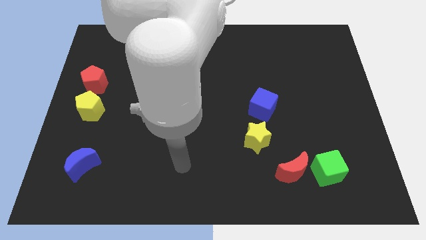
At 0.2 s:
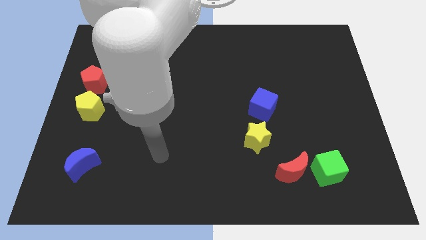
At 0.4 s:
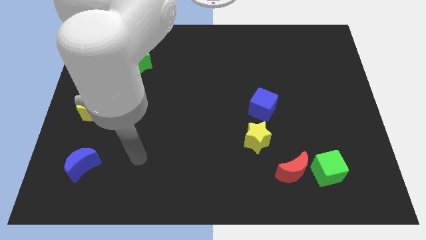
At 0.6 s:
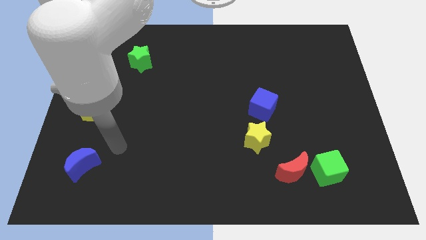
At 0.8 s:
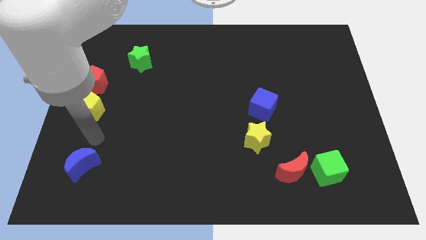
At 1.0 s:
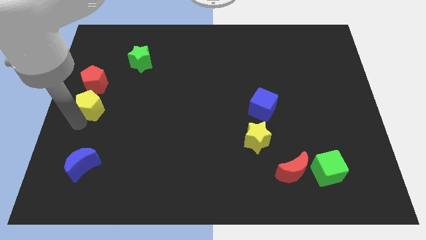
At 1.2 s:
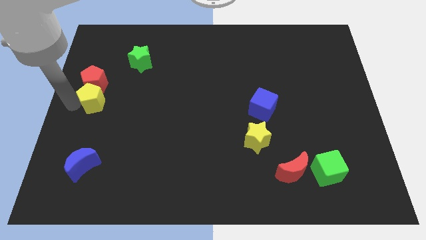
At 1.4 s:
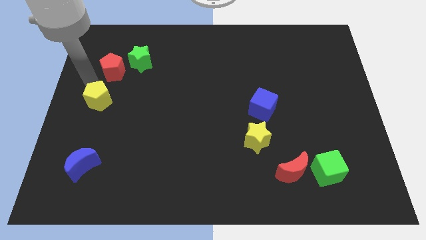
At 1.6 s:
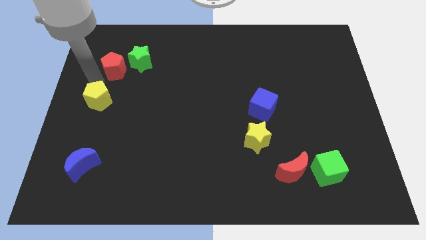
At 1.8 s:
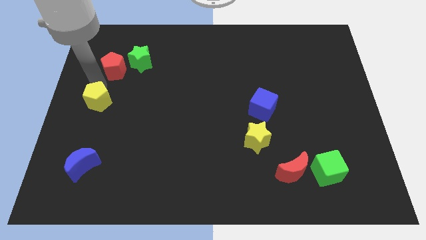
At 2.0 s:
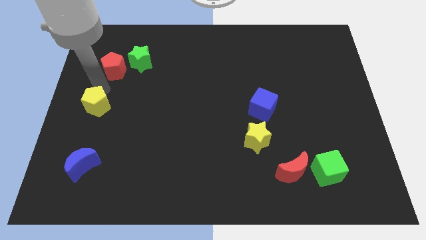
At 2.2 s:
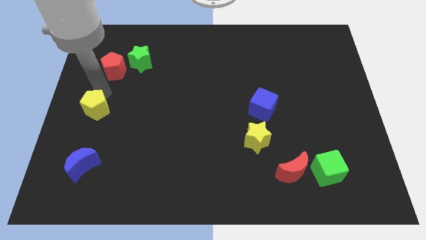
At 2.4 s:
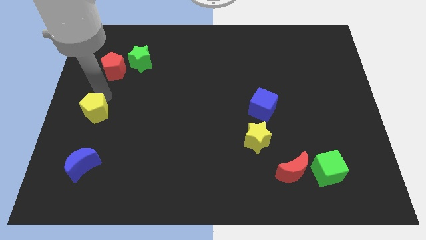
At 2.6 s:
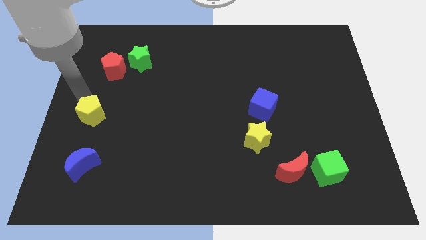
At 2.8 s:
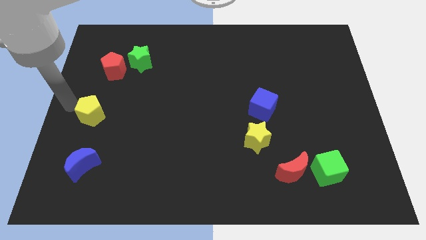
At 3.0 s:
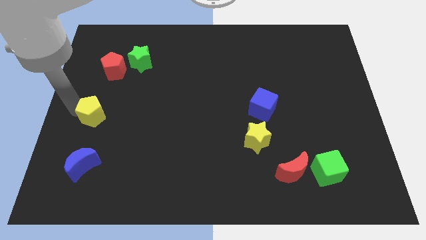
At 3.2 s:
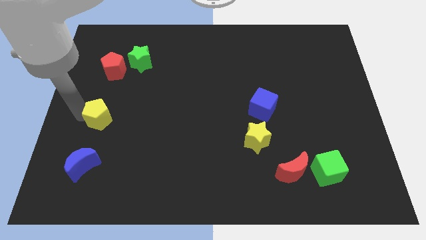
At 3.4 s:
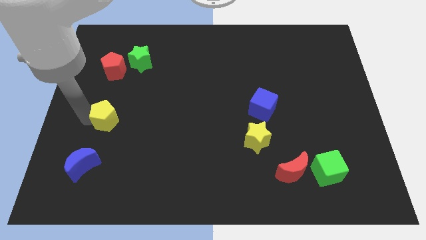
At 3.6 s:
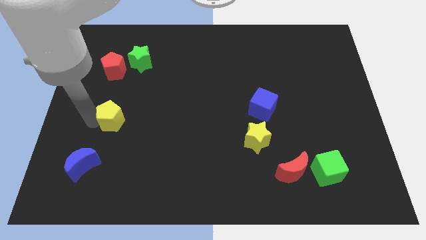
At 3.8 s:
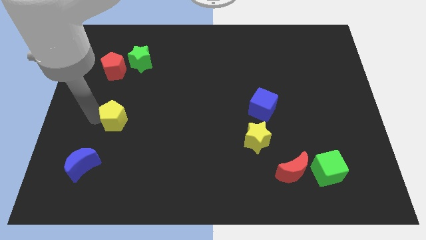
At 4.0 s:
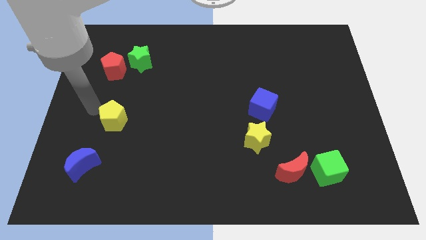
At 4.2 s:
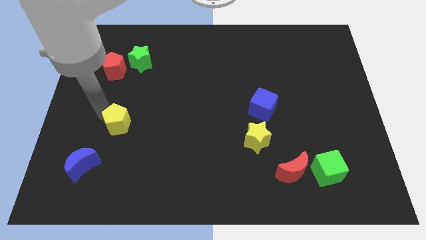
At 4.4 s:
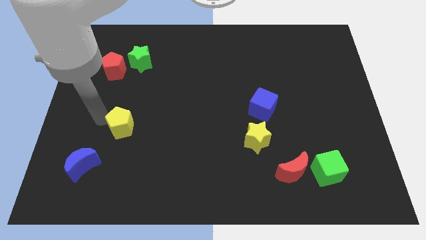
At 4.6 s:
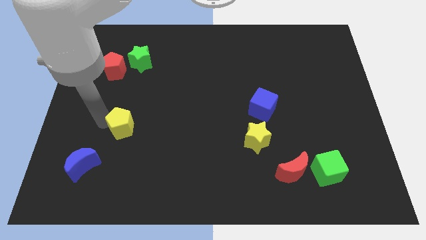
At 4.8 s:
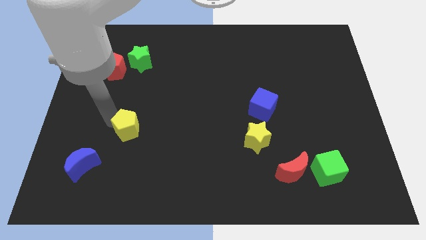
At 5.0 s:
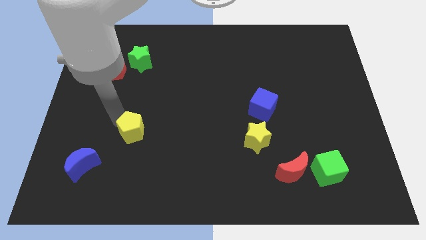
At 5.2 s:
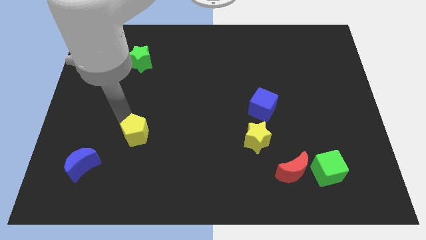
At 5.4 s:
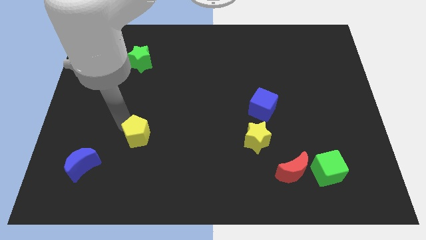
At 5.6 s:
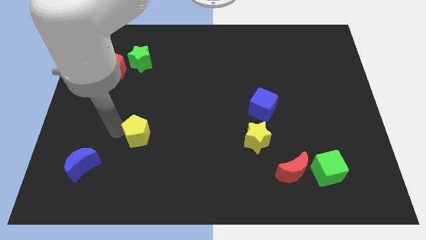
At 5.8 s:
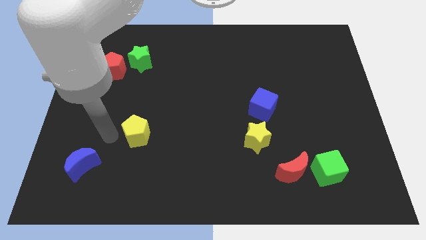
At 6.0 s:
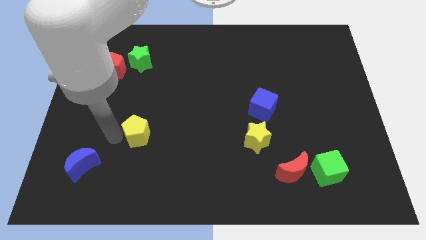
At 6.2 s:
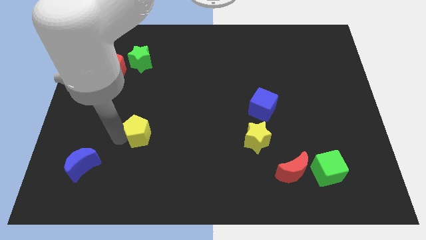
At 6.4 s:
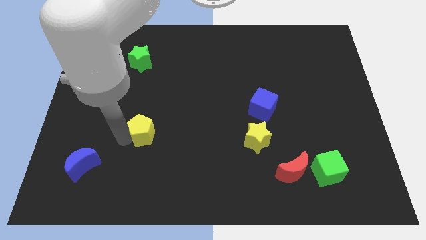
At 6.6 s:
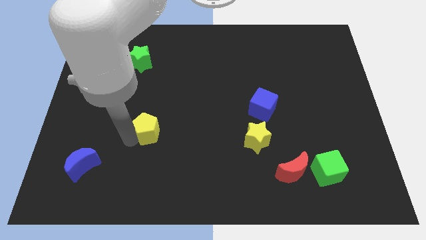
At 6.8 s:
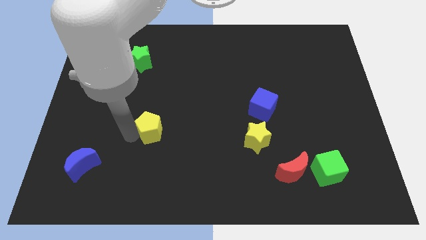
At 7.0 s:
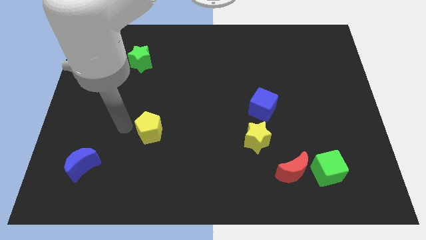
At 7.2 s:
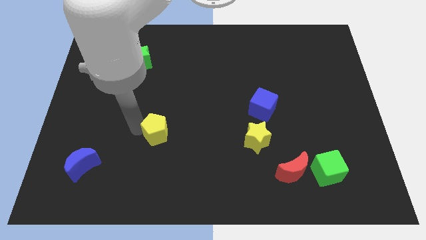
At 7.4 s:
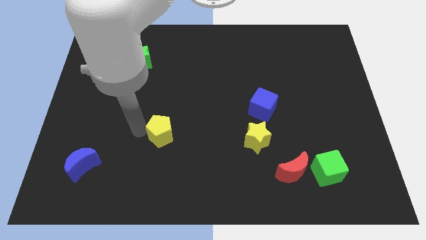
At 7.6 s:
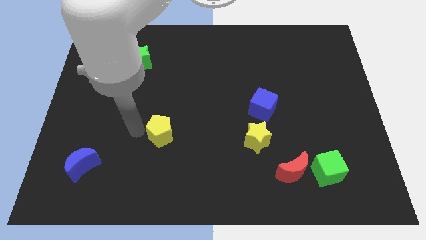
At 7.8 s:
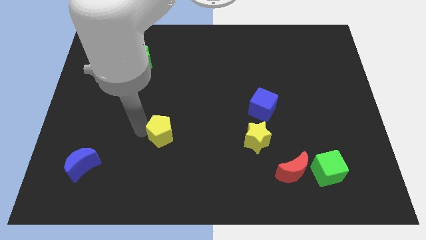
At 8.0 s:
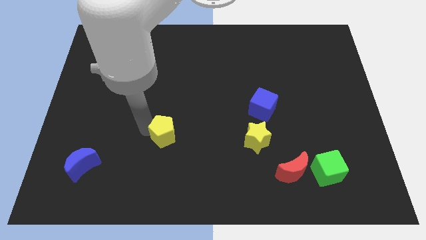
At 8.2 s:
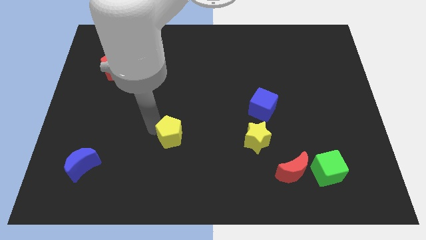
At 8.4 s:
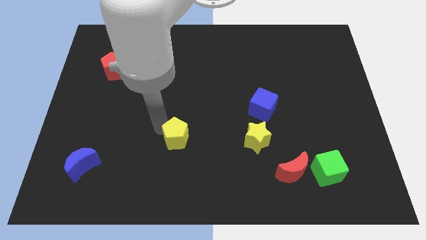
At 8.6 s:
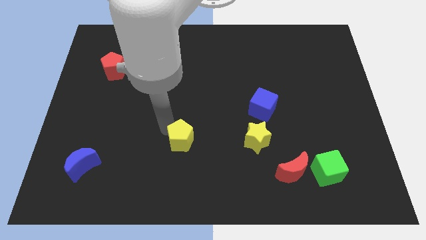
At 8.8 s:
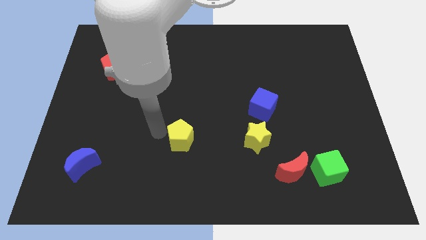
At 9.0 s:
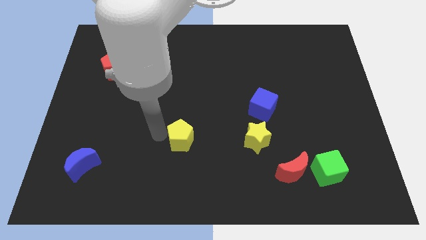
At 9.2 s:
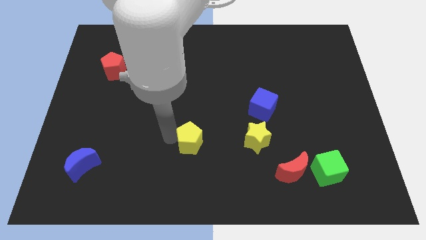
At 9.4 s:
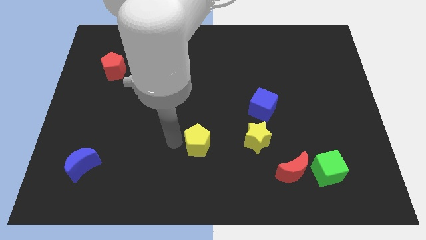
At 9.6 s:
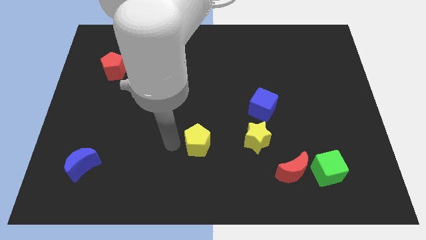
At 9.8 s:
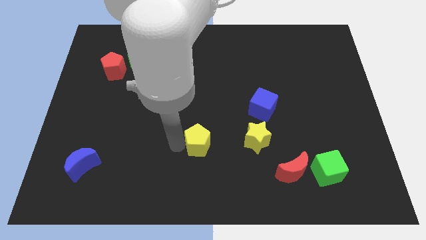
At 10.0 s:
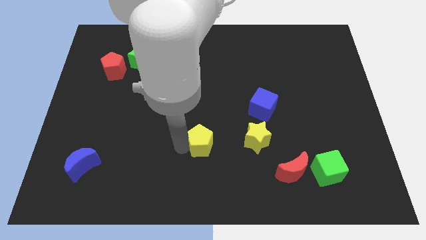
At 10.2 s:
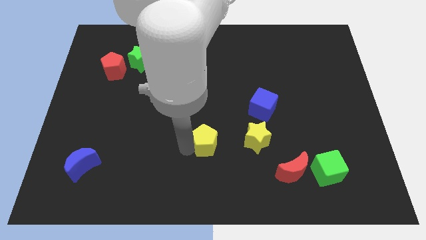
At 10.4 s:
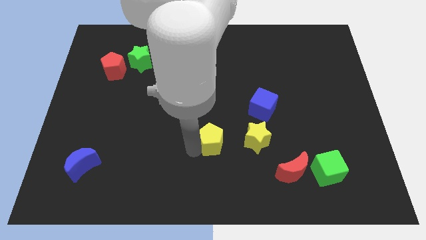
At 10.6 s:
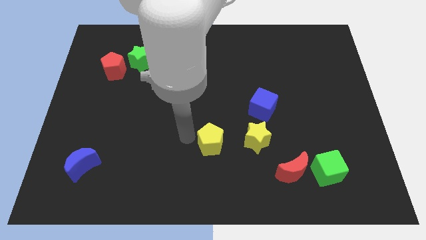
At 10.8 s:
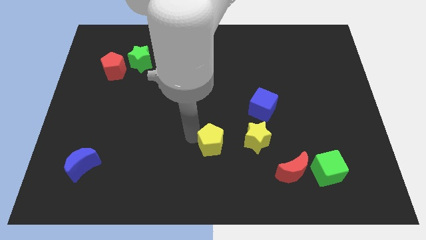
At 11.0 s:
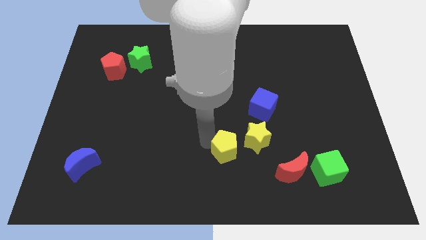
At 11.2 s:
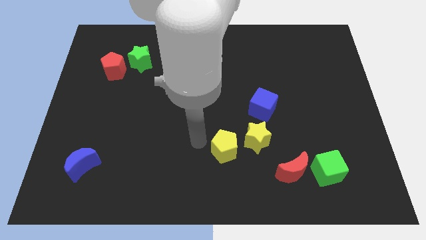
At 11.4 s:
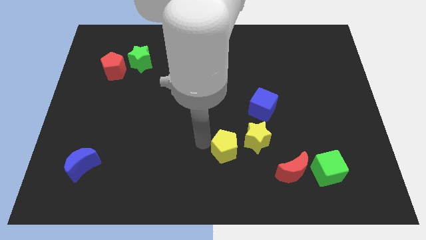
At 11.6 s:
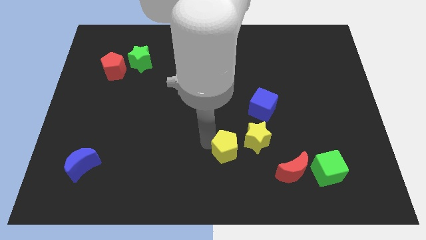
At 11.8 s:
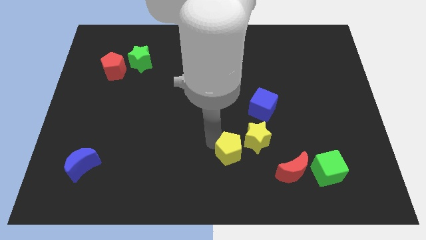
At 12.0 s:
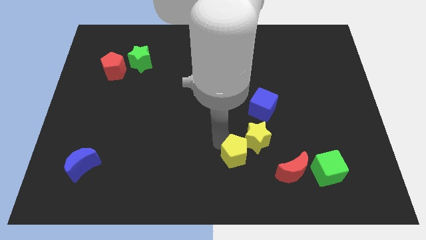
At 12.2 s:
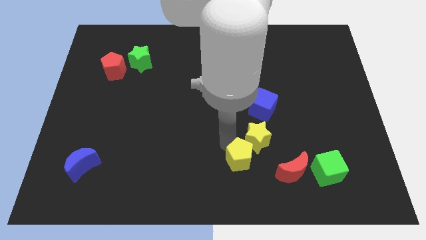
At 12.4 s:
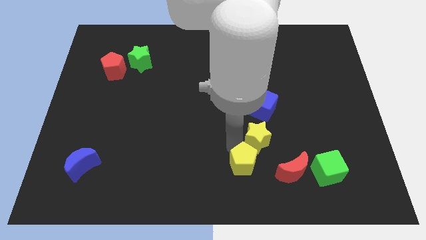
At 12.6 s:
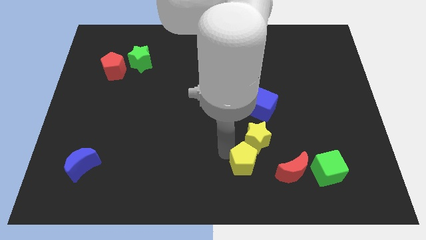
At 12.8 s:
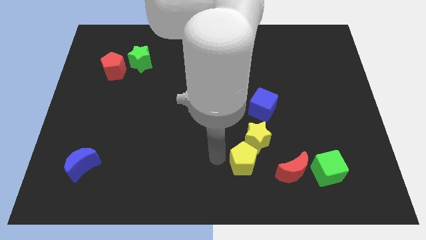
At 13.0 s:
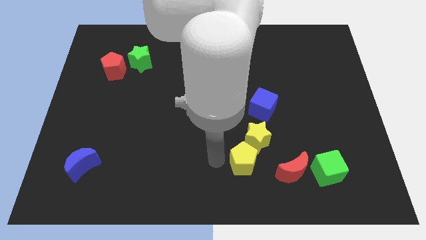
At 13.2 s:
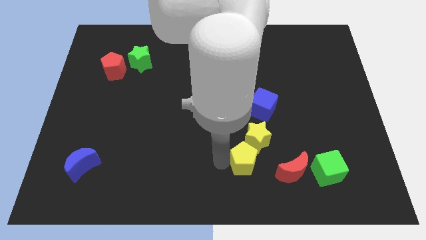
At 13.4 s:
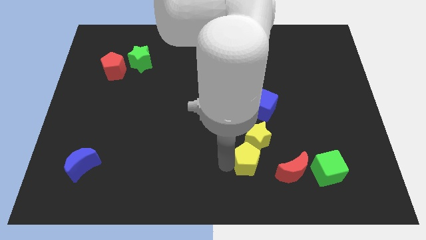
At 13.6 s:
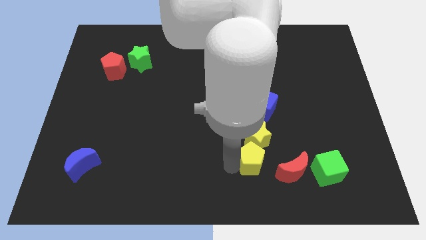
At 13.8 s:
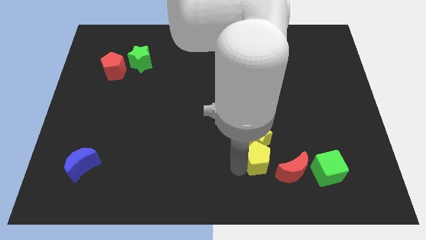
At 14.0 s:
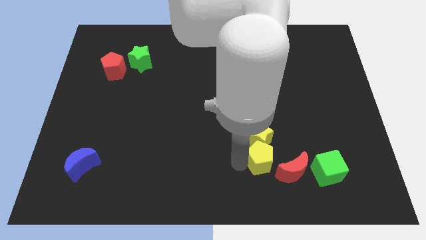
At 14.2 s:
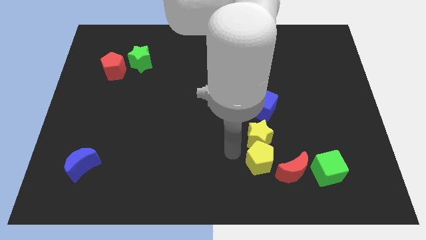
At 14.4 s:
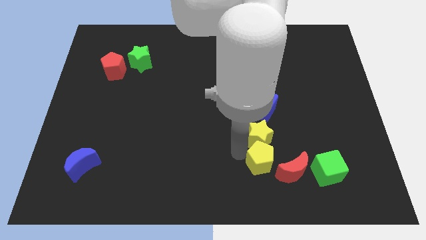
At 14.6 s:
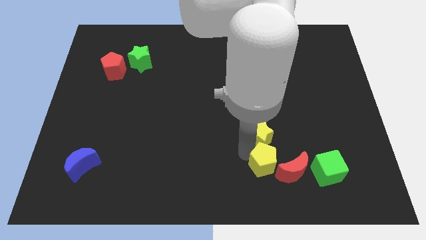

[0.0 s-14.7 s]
slide the yellow pentagon to the red moon
